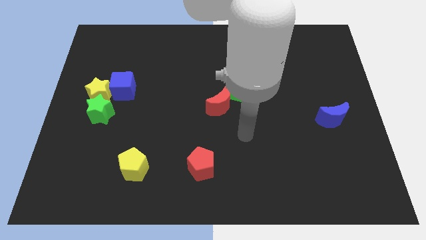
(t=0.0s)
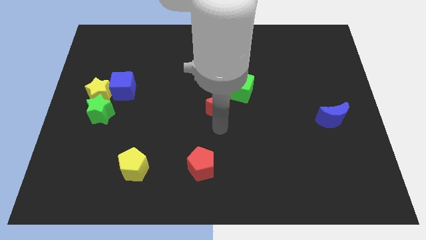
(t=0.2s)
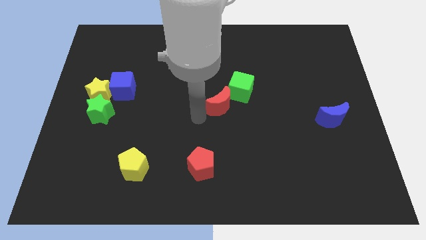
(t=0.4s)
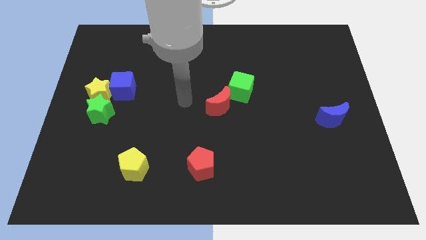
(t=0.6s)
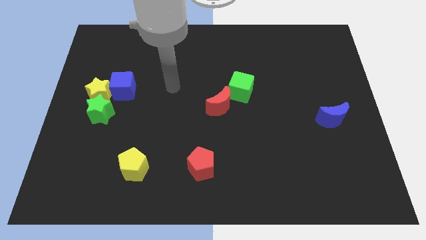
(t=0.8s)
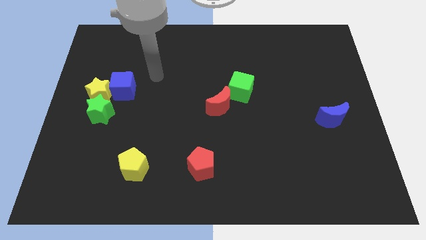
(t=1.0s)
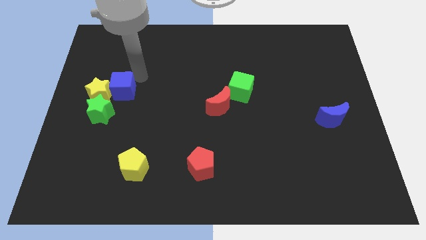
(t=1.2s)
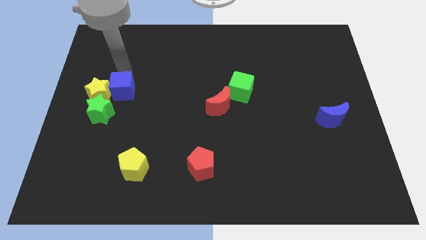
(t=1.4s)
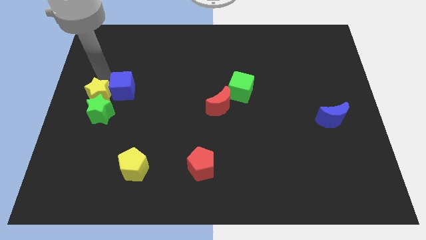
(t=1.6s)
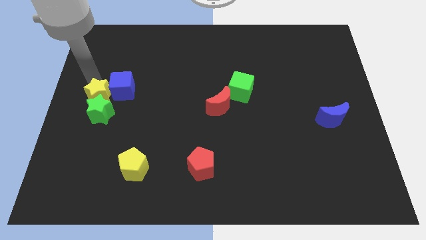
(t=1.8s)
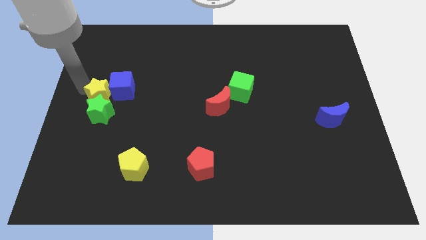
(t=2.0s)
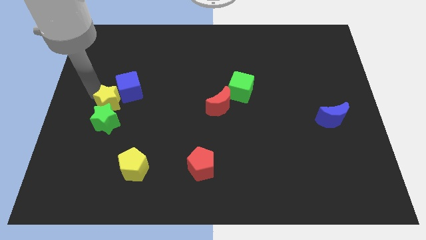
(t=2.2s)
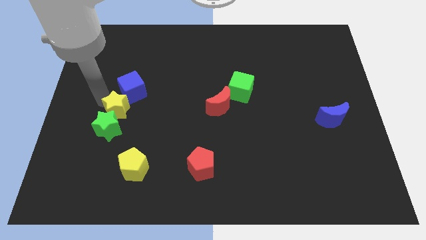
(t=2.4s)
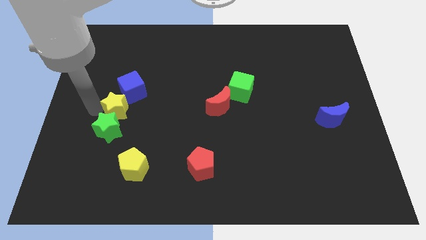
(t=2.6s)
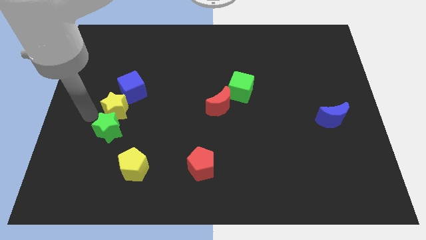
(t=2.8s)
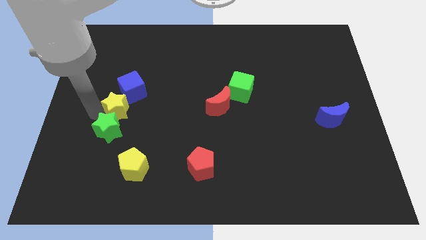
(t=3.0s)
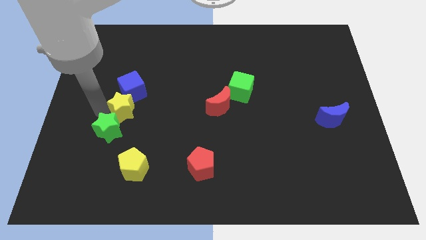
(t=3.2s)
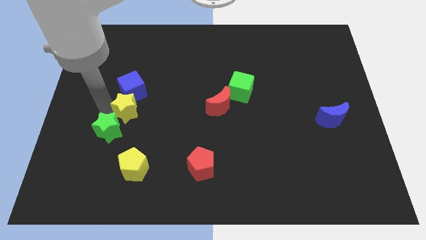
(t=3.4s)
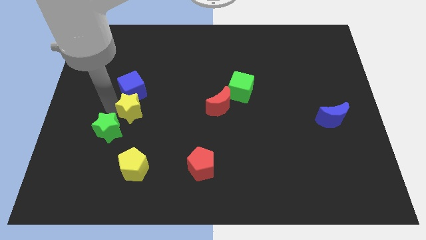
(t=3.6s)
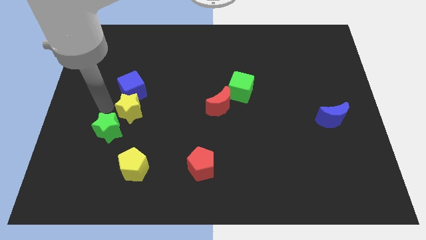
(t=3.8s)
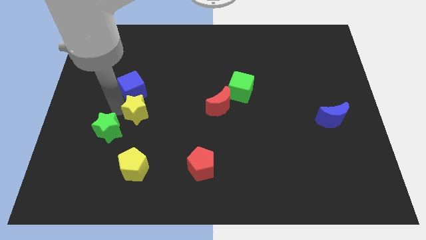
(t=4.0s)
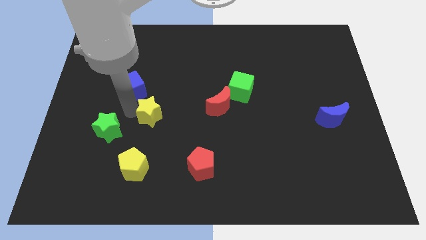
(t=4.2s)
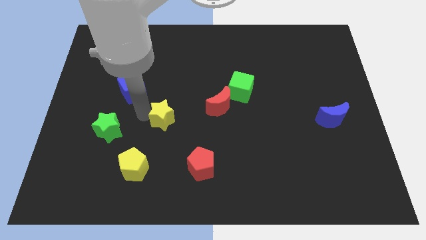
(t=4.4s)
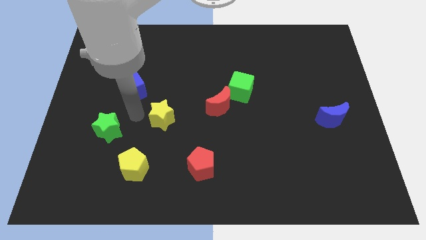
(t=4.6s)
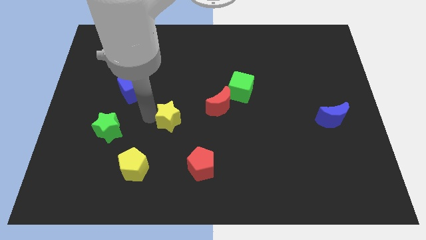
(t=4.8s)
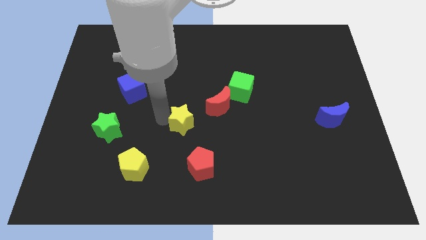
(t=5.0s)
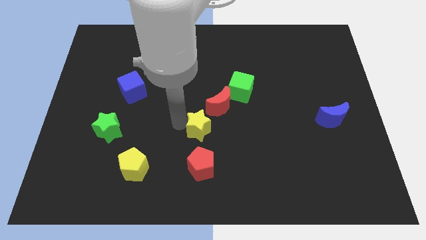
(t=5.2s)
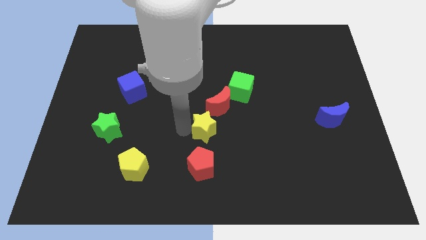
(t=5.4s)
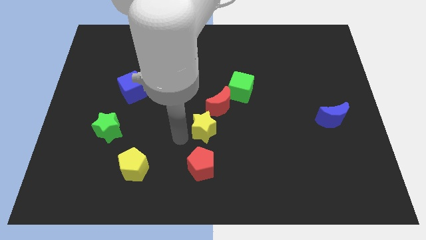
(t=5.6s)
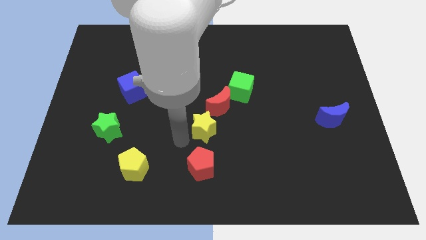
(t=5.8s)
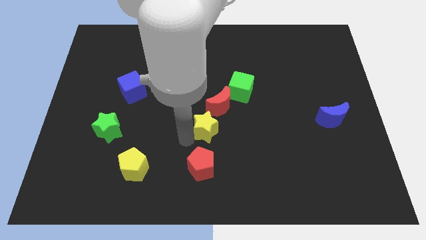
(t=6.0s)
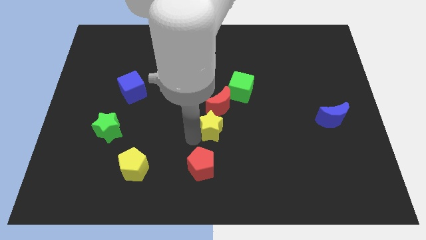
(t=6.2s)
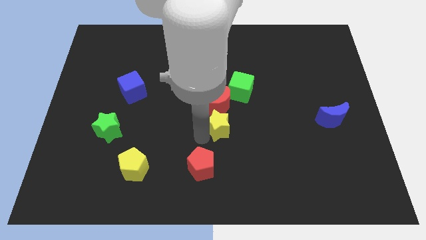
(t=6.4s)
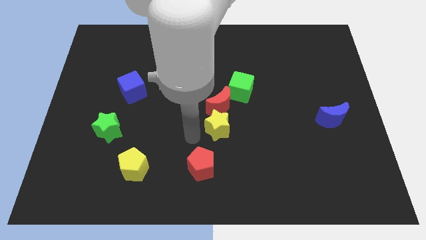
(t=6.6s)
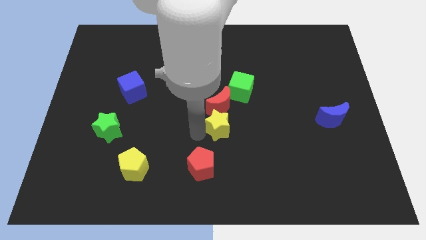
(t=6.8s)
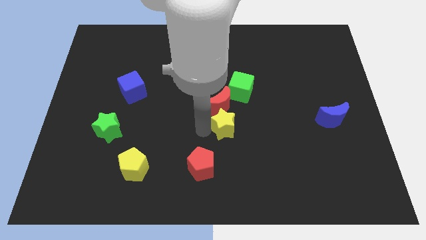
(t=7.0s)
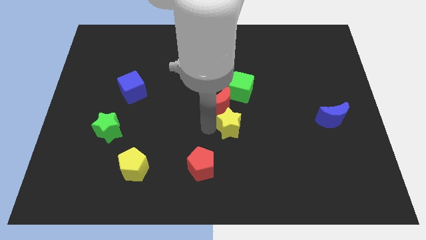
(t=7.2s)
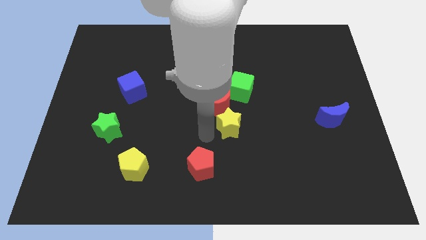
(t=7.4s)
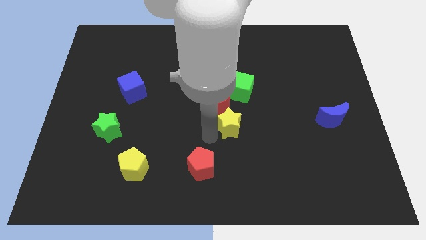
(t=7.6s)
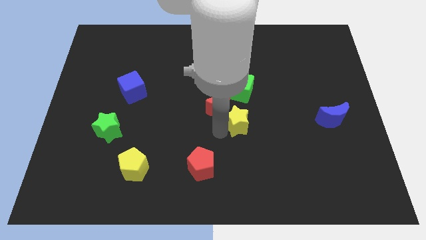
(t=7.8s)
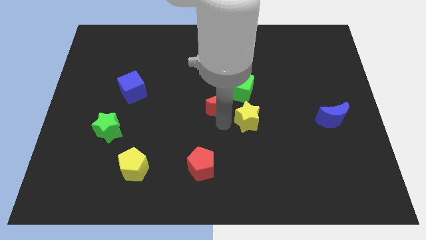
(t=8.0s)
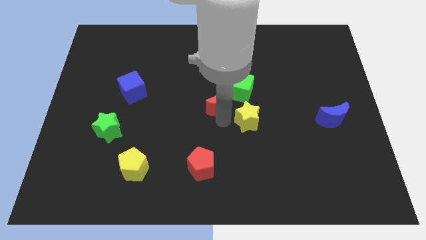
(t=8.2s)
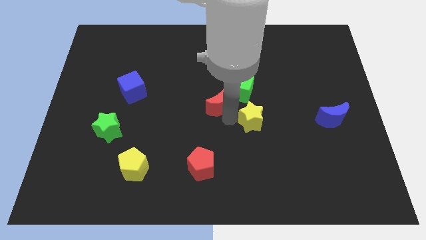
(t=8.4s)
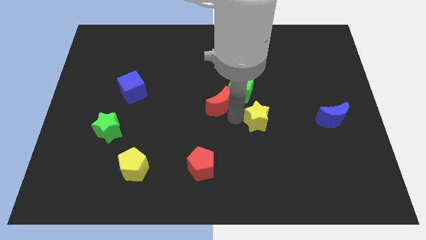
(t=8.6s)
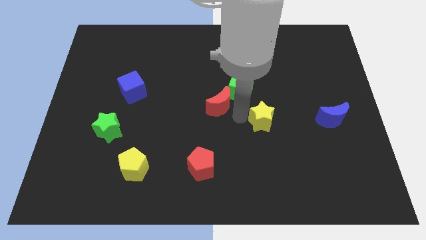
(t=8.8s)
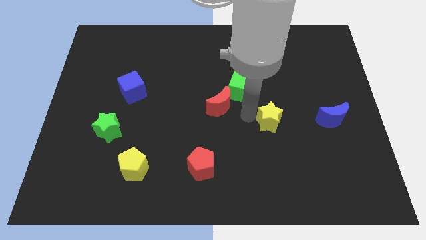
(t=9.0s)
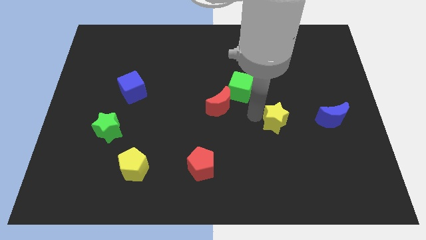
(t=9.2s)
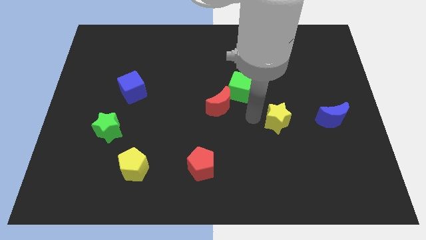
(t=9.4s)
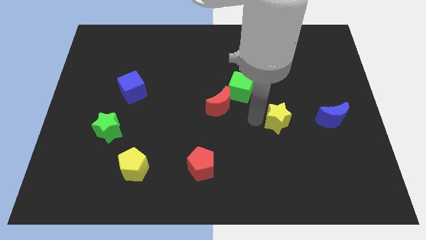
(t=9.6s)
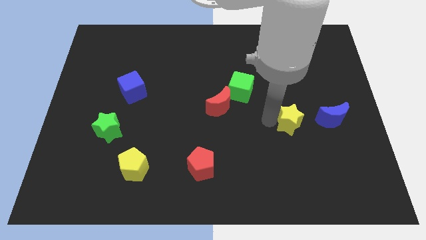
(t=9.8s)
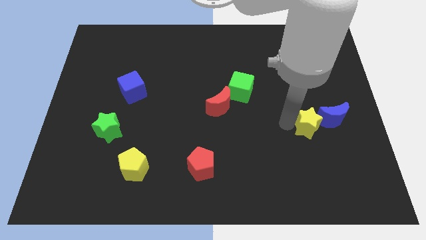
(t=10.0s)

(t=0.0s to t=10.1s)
push the yellow star close to the blue moon

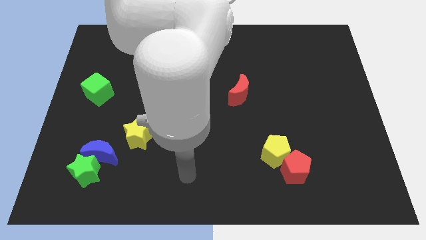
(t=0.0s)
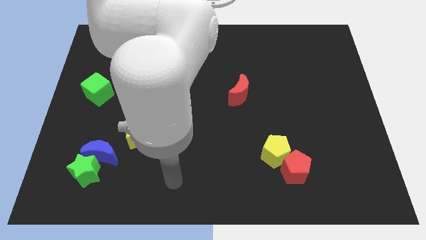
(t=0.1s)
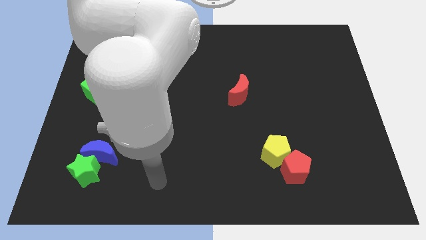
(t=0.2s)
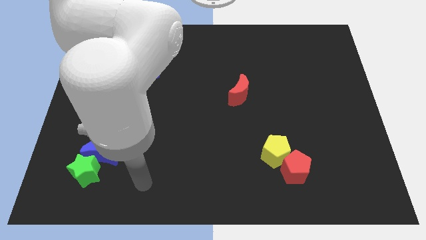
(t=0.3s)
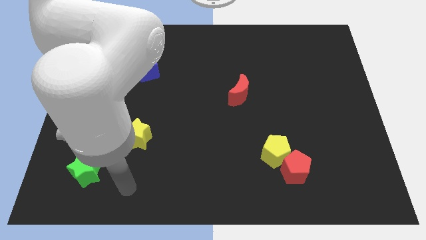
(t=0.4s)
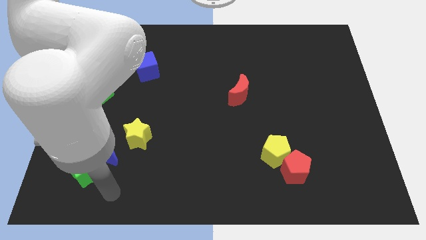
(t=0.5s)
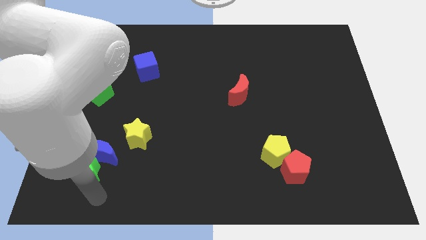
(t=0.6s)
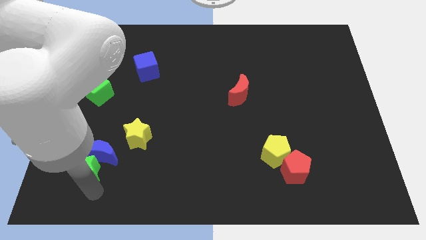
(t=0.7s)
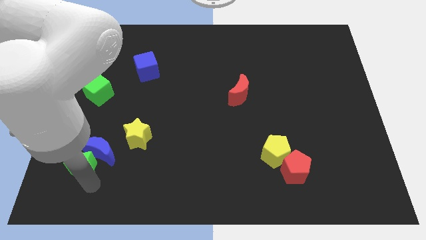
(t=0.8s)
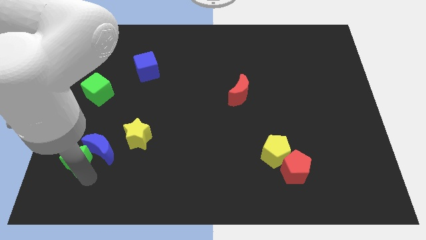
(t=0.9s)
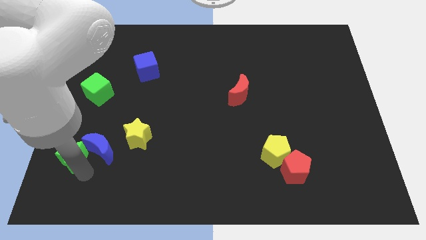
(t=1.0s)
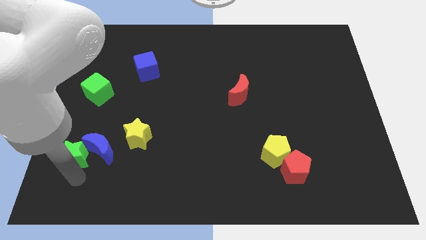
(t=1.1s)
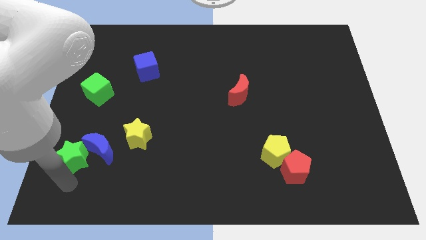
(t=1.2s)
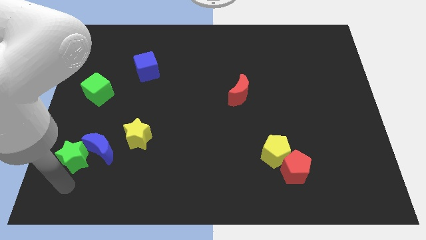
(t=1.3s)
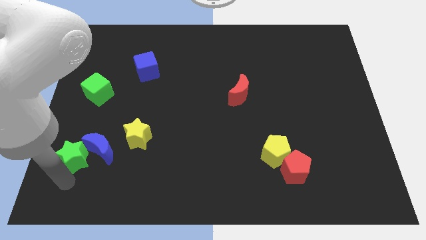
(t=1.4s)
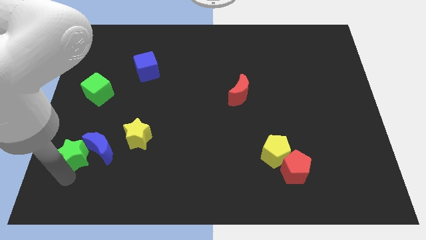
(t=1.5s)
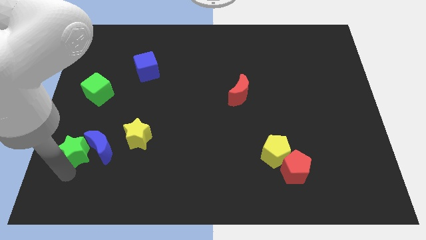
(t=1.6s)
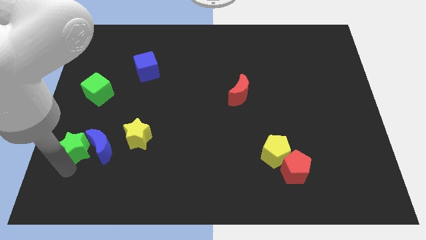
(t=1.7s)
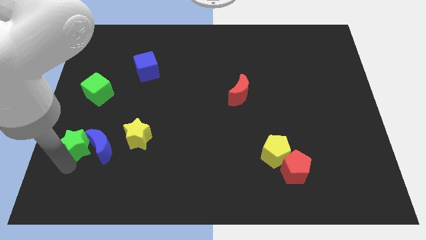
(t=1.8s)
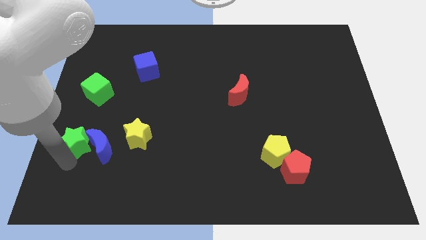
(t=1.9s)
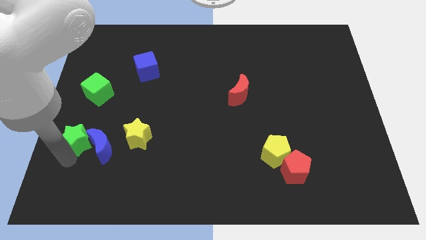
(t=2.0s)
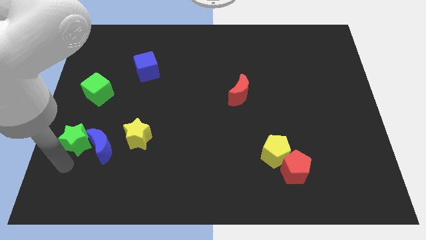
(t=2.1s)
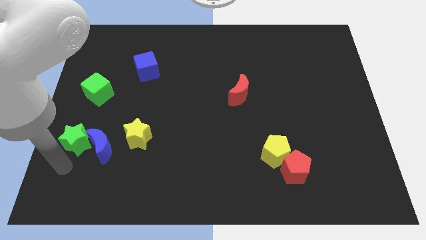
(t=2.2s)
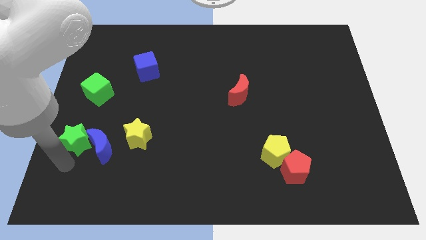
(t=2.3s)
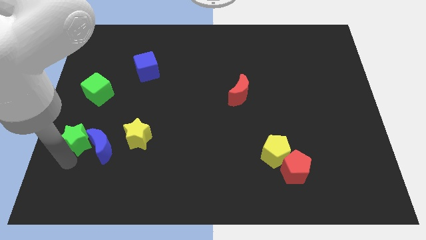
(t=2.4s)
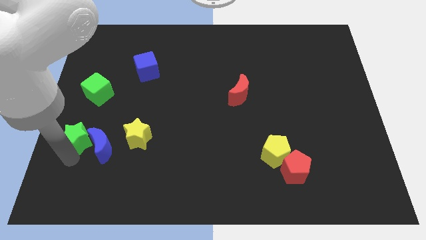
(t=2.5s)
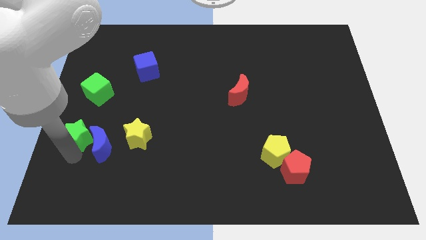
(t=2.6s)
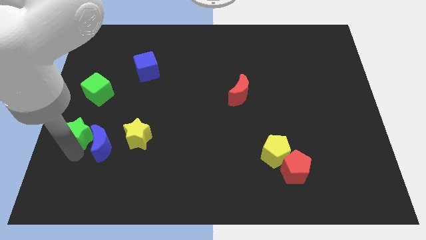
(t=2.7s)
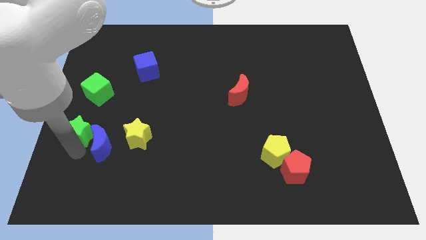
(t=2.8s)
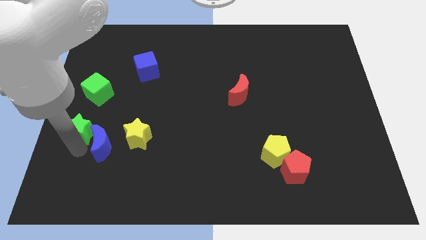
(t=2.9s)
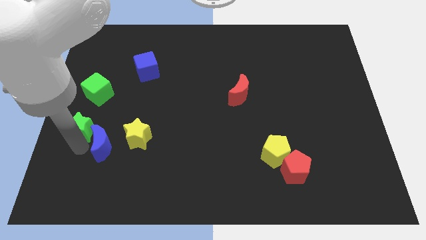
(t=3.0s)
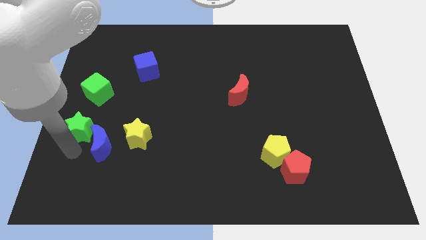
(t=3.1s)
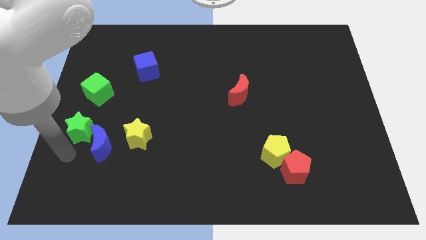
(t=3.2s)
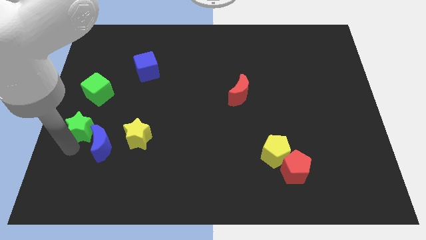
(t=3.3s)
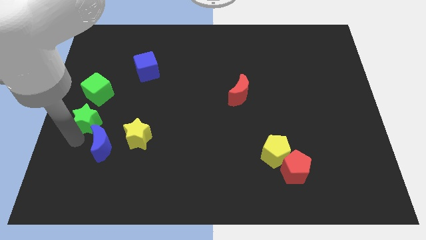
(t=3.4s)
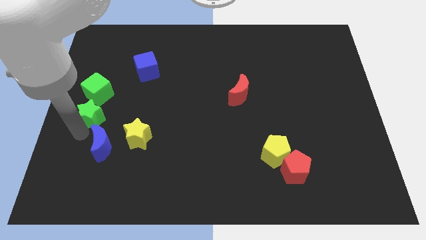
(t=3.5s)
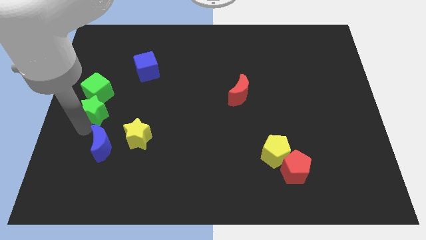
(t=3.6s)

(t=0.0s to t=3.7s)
push the green star close to the green cube
